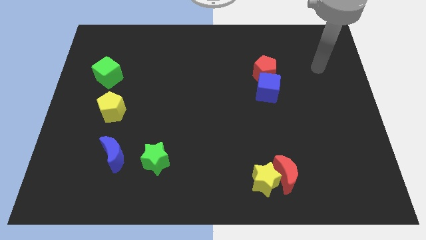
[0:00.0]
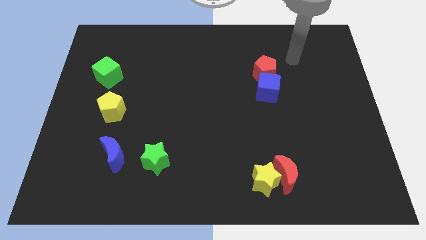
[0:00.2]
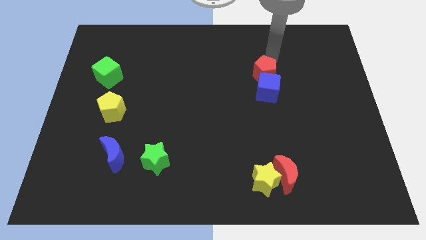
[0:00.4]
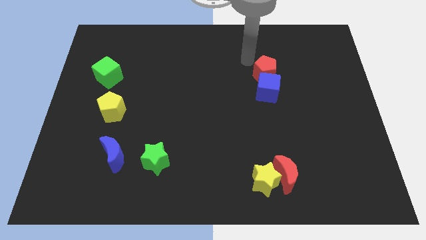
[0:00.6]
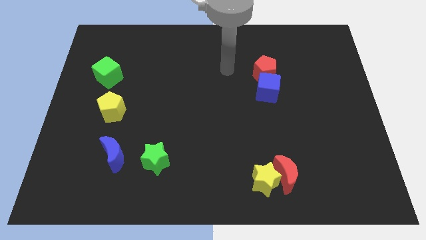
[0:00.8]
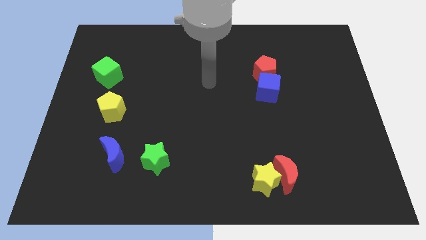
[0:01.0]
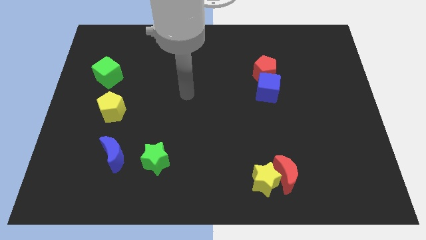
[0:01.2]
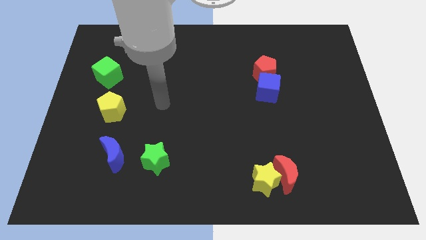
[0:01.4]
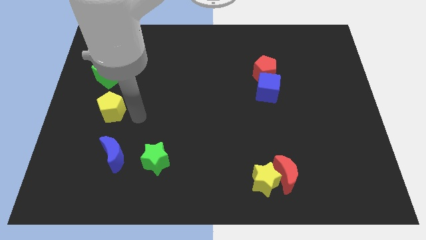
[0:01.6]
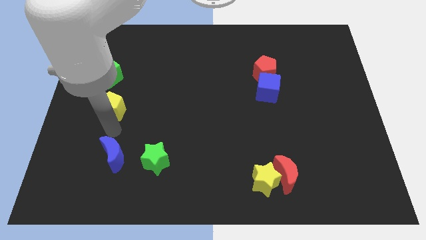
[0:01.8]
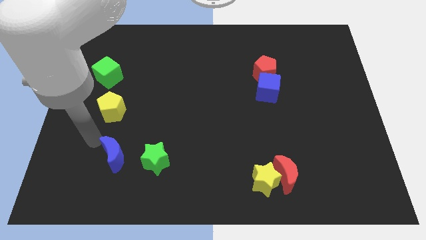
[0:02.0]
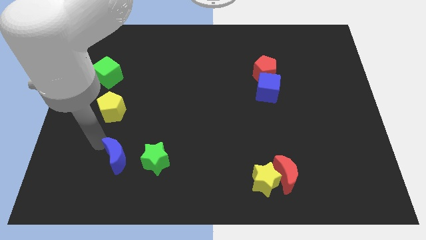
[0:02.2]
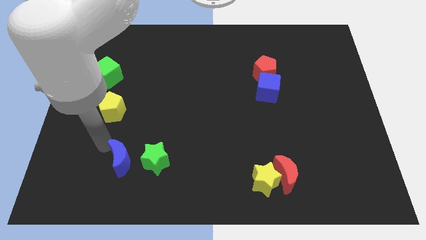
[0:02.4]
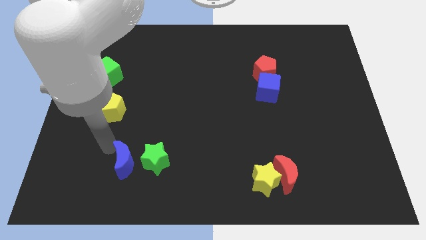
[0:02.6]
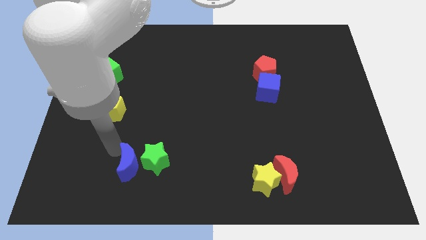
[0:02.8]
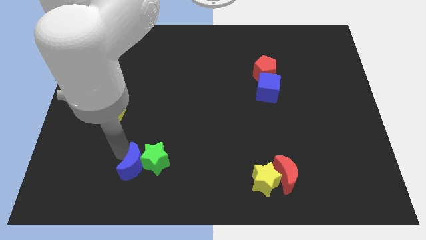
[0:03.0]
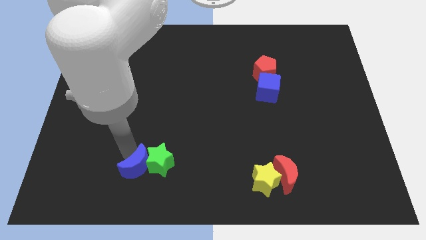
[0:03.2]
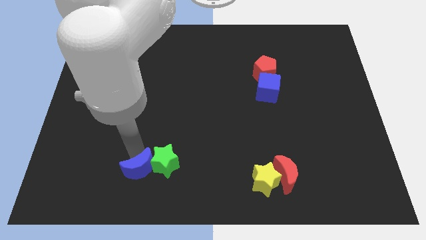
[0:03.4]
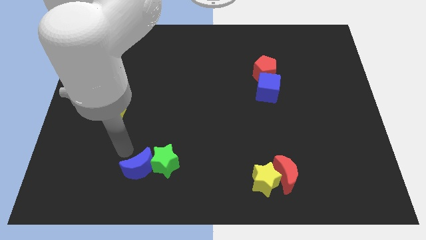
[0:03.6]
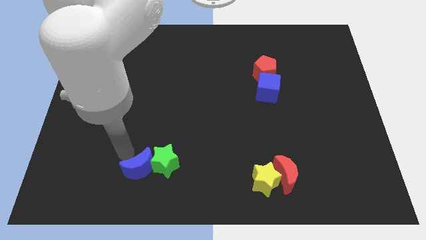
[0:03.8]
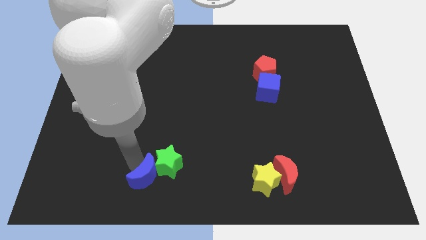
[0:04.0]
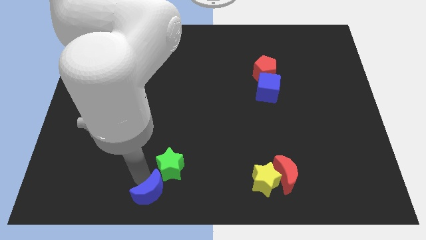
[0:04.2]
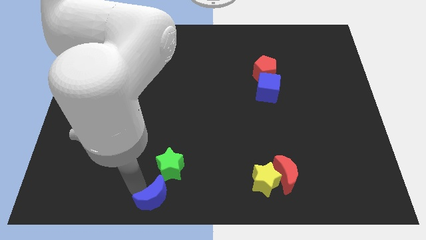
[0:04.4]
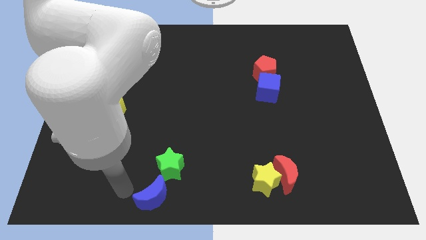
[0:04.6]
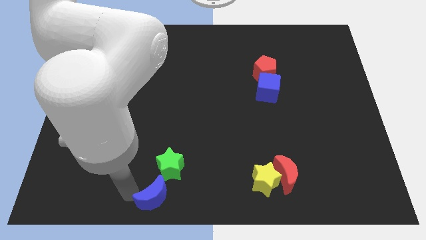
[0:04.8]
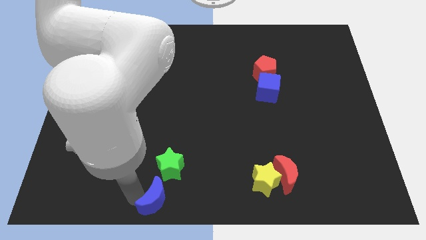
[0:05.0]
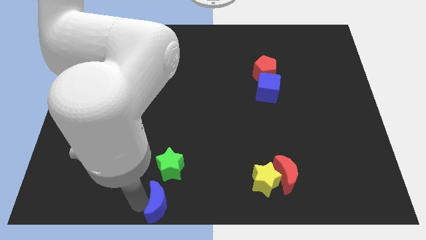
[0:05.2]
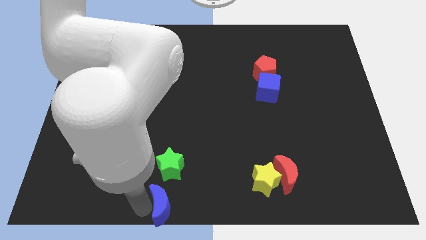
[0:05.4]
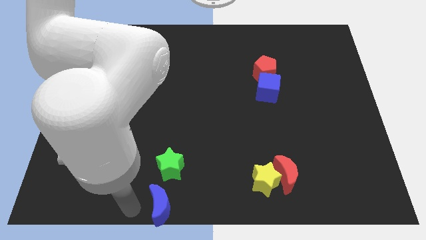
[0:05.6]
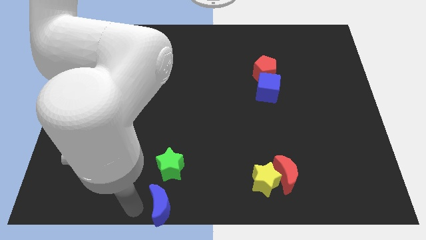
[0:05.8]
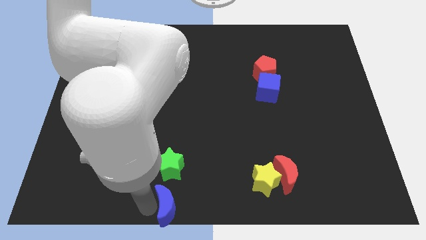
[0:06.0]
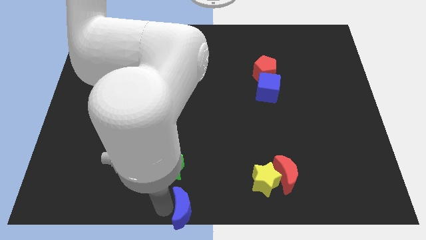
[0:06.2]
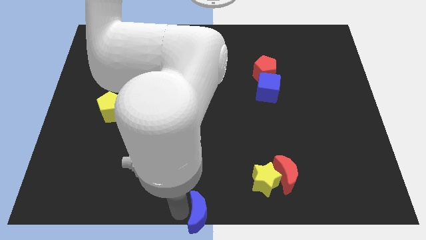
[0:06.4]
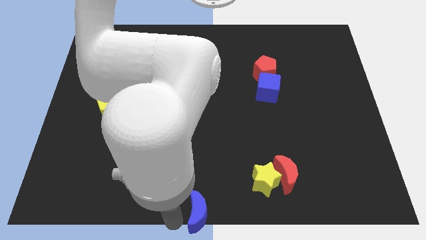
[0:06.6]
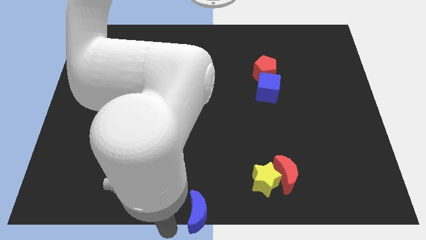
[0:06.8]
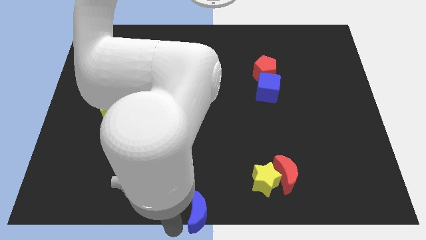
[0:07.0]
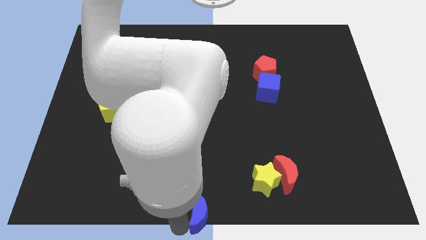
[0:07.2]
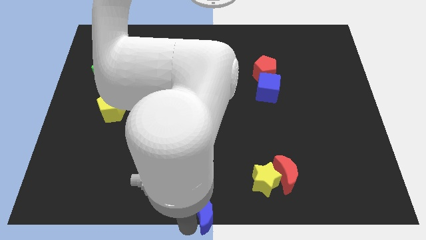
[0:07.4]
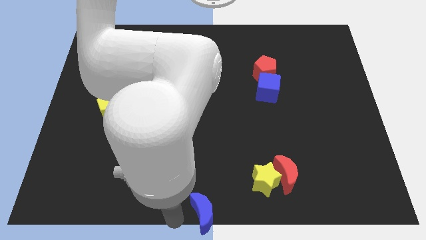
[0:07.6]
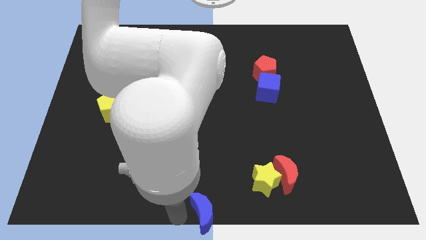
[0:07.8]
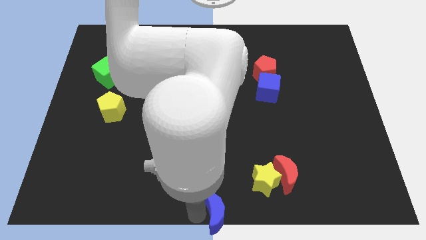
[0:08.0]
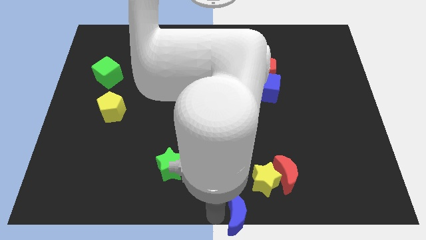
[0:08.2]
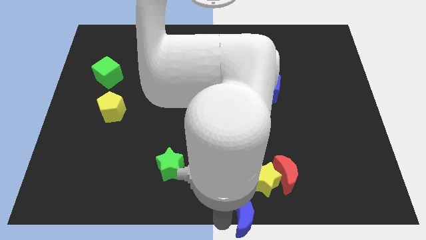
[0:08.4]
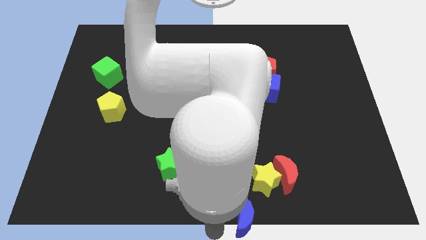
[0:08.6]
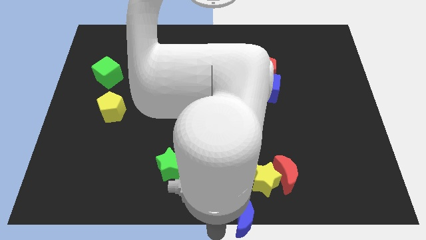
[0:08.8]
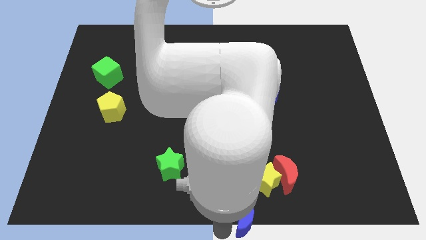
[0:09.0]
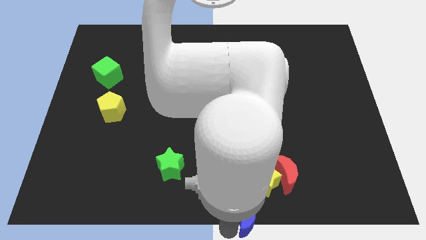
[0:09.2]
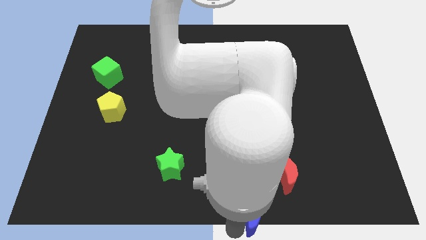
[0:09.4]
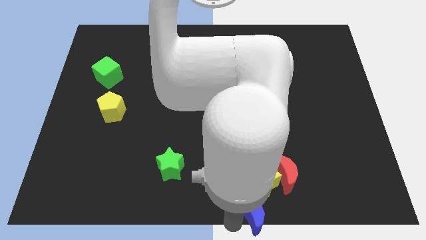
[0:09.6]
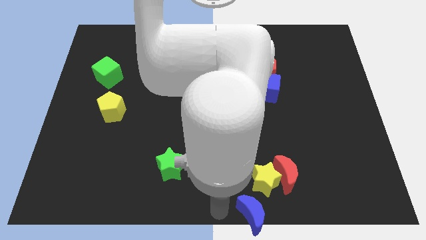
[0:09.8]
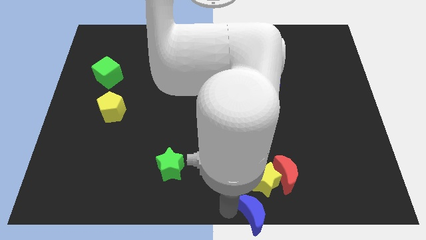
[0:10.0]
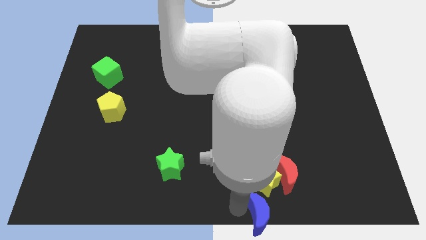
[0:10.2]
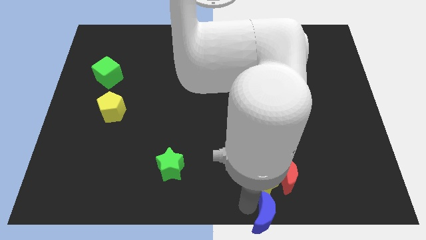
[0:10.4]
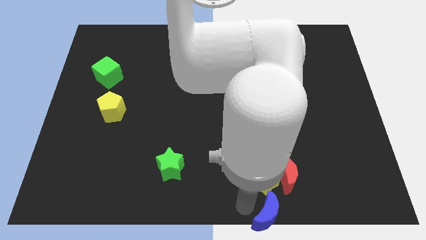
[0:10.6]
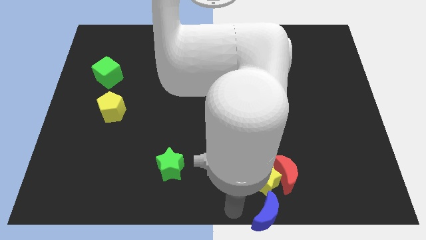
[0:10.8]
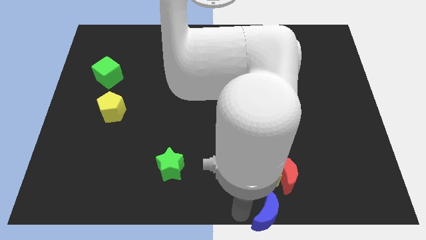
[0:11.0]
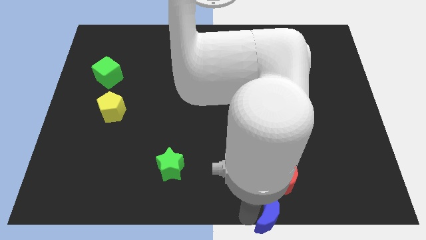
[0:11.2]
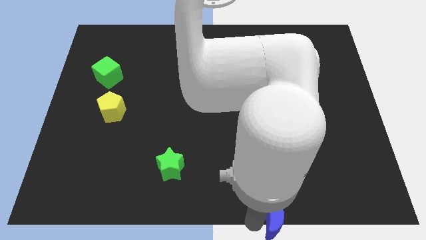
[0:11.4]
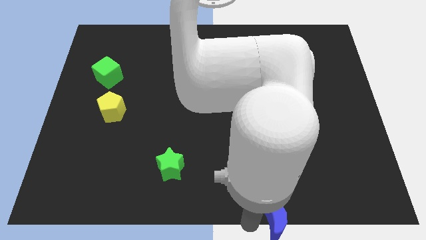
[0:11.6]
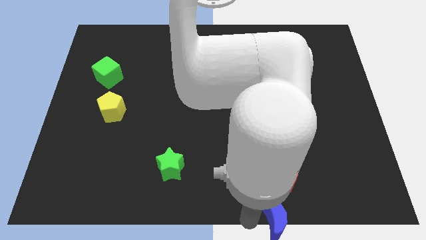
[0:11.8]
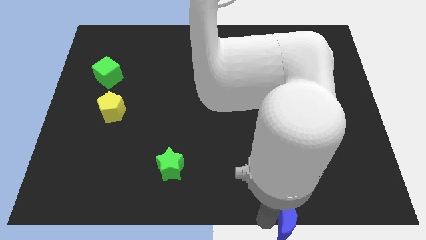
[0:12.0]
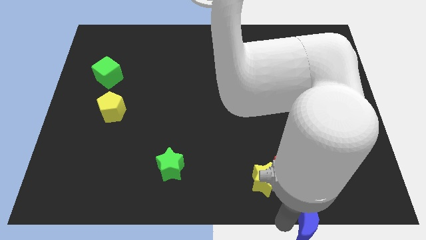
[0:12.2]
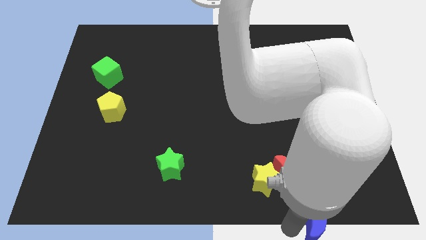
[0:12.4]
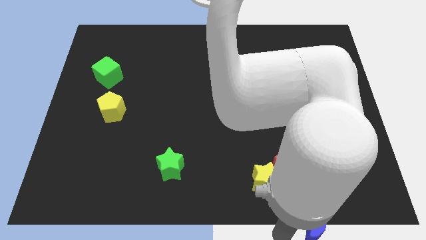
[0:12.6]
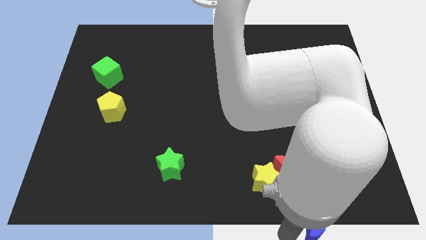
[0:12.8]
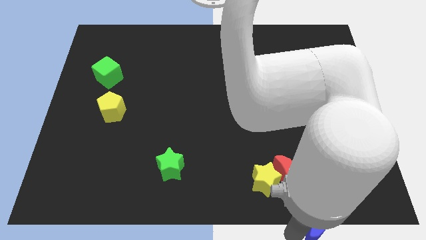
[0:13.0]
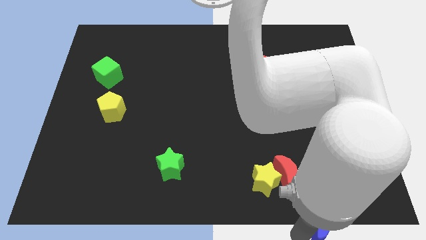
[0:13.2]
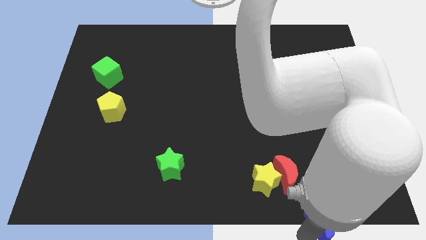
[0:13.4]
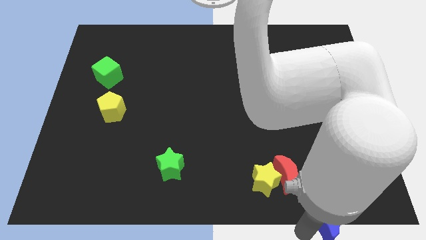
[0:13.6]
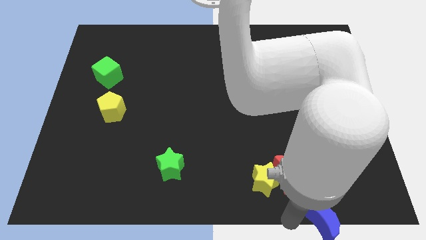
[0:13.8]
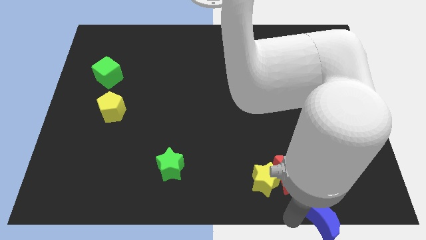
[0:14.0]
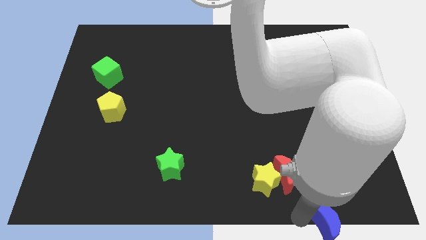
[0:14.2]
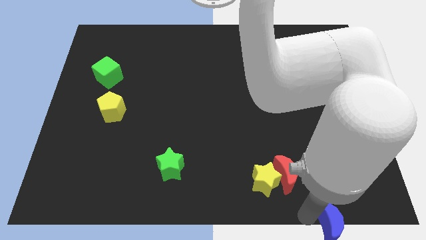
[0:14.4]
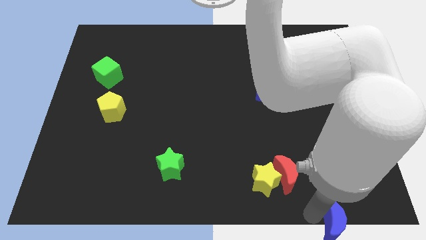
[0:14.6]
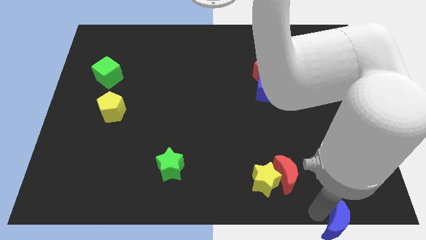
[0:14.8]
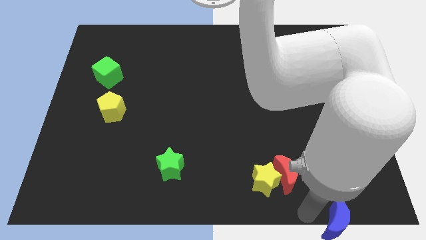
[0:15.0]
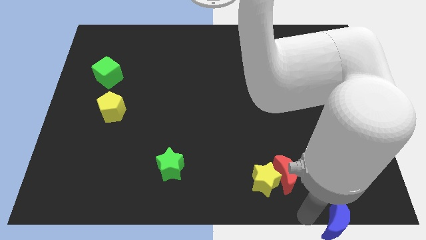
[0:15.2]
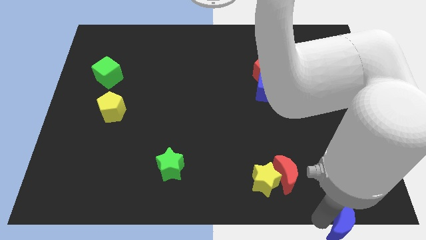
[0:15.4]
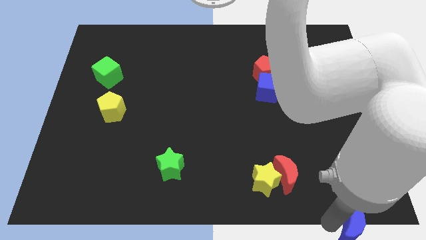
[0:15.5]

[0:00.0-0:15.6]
move the blue moon to the bottom right

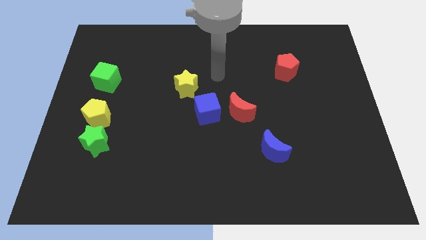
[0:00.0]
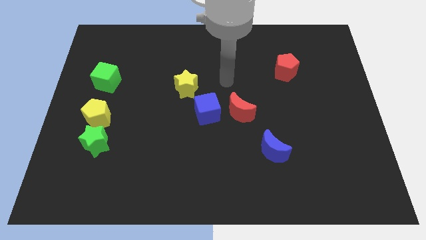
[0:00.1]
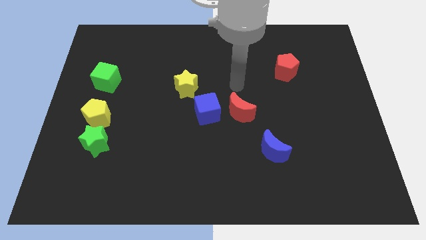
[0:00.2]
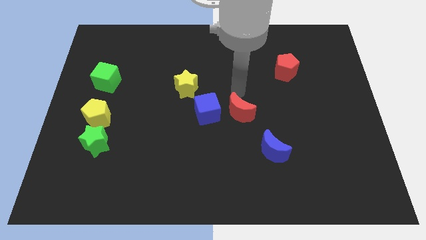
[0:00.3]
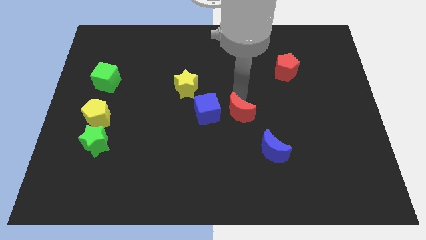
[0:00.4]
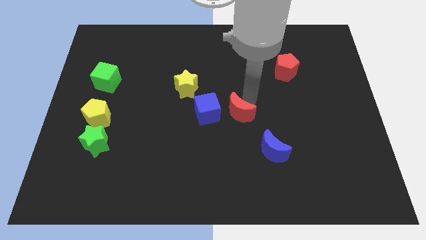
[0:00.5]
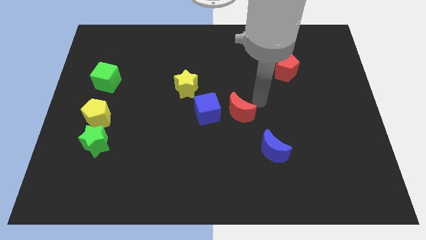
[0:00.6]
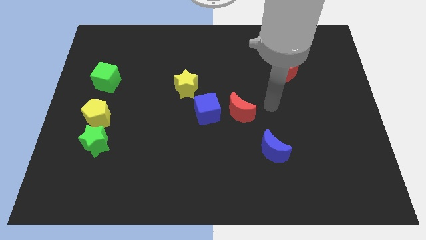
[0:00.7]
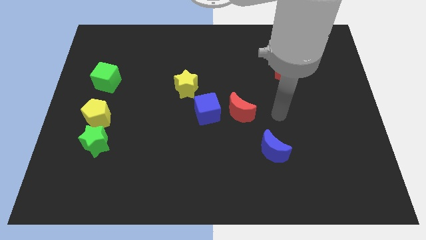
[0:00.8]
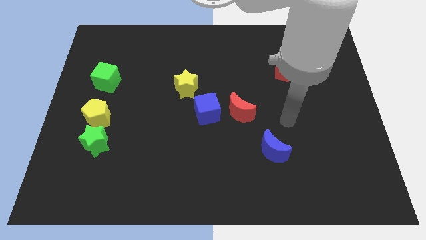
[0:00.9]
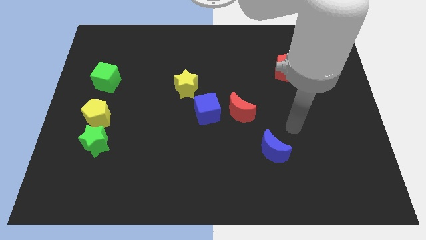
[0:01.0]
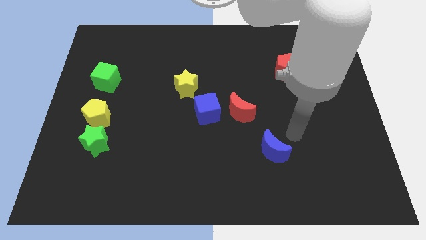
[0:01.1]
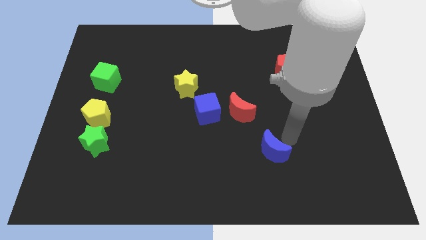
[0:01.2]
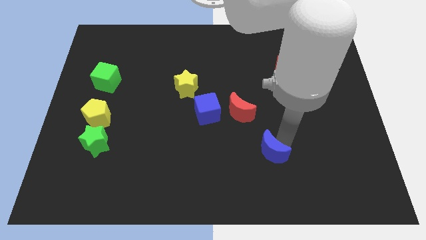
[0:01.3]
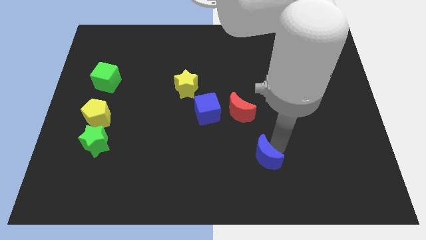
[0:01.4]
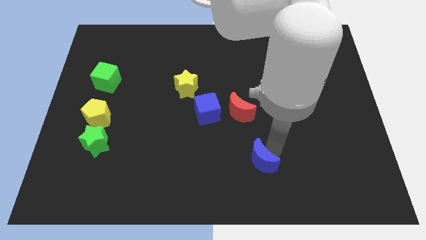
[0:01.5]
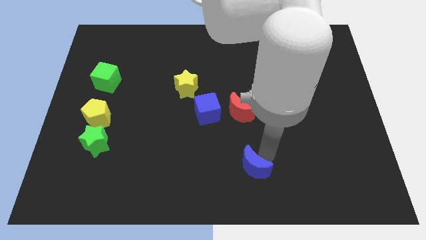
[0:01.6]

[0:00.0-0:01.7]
slide the blue moon to the bottom
